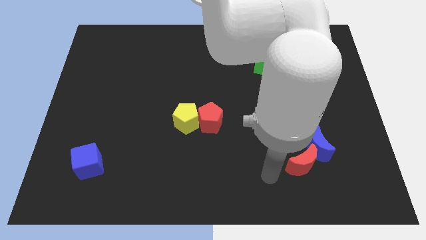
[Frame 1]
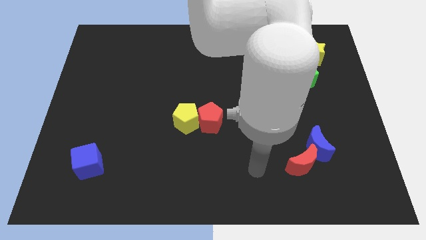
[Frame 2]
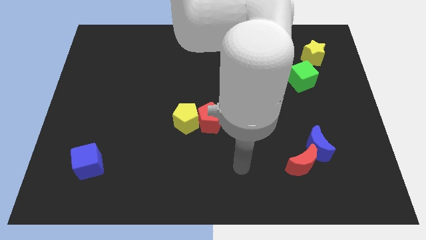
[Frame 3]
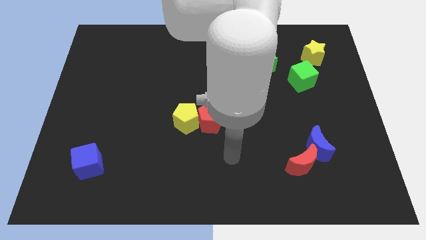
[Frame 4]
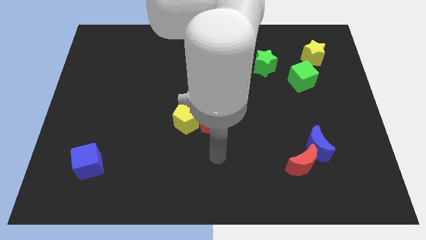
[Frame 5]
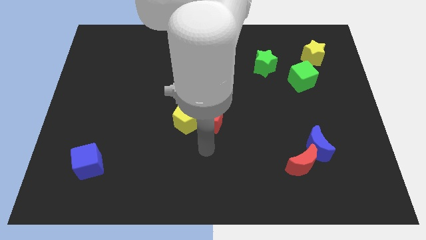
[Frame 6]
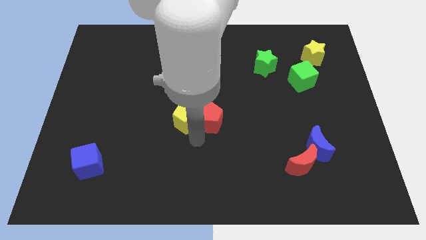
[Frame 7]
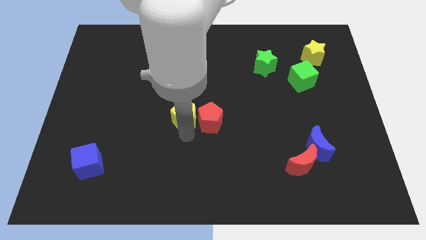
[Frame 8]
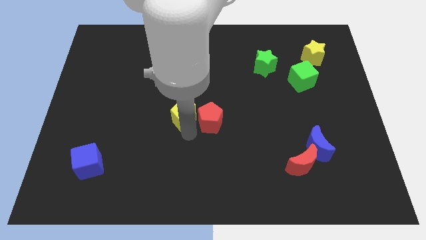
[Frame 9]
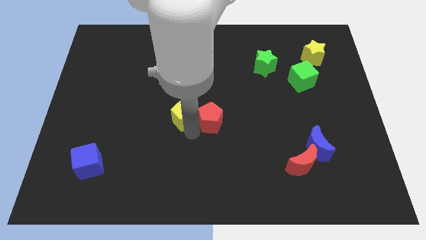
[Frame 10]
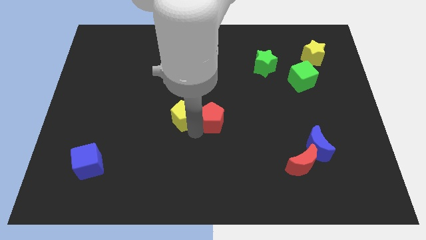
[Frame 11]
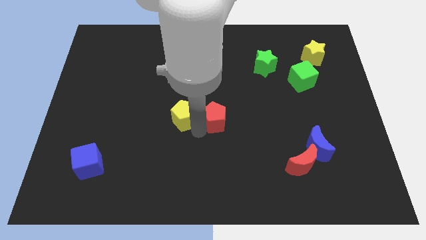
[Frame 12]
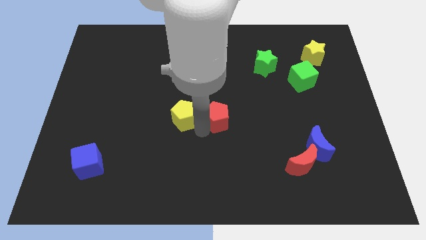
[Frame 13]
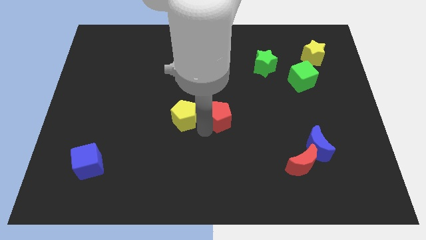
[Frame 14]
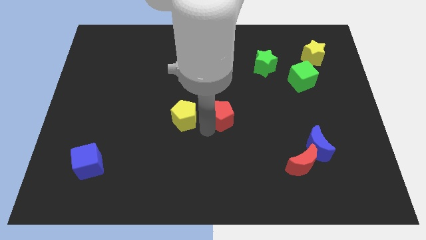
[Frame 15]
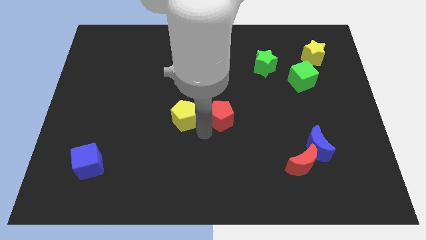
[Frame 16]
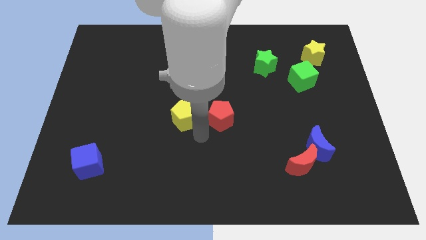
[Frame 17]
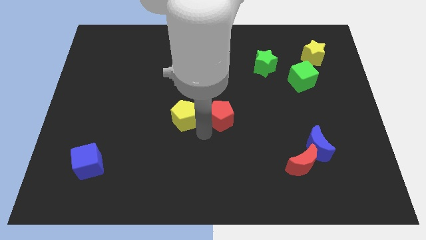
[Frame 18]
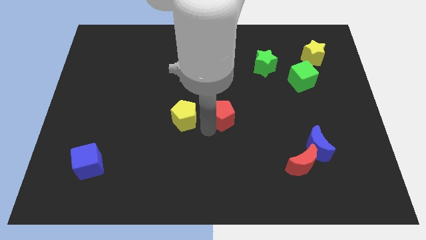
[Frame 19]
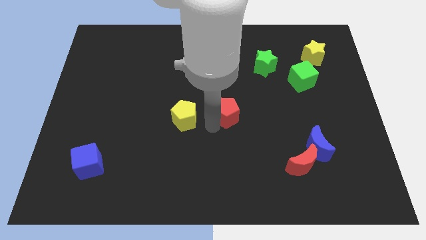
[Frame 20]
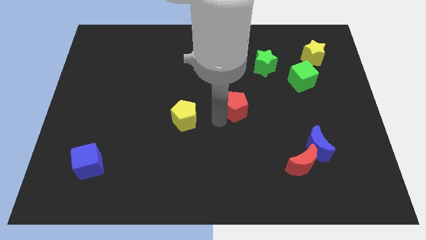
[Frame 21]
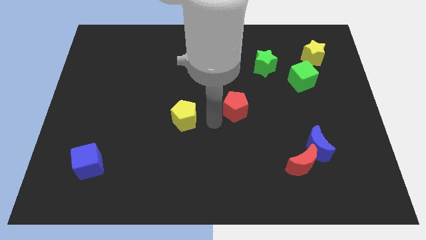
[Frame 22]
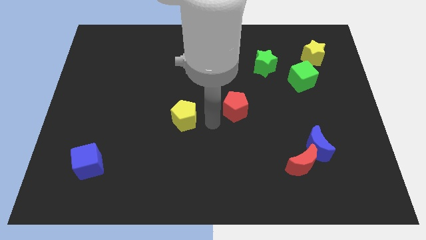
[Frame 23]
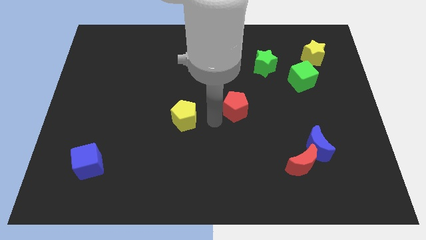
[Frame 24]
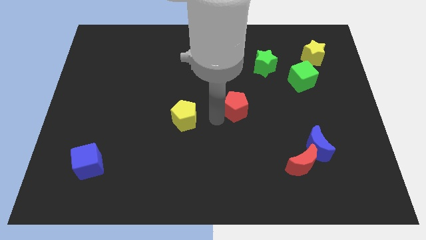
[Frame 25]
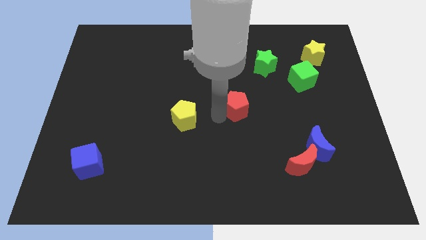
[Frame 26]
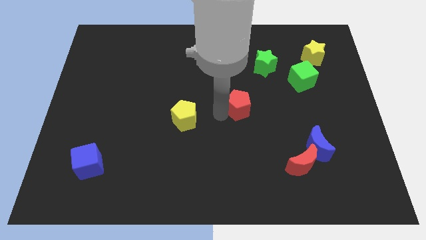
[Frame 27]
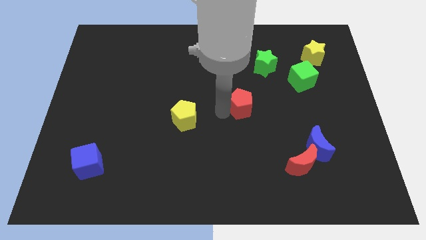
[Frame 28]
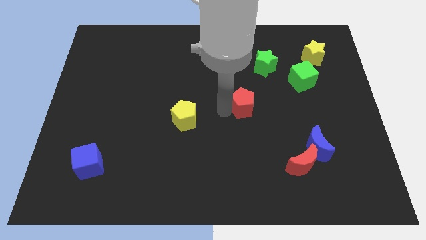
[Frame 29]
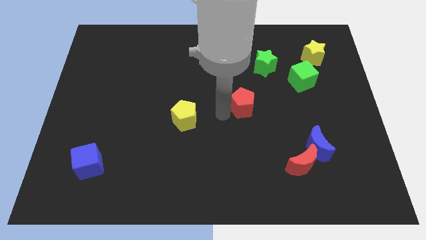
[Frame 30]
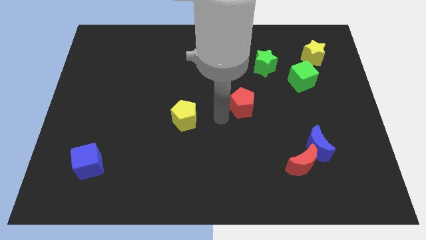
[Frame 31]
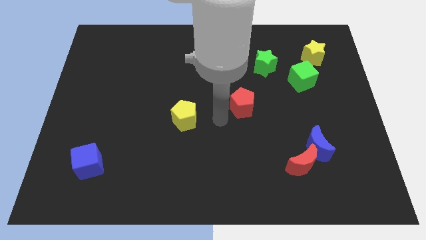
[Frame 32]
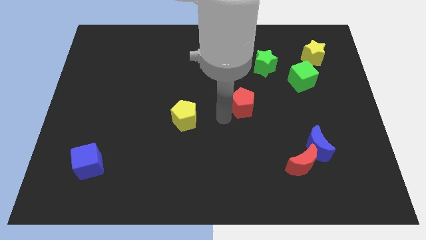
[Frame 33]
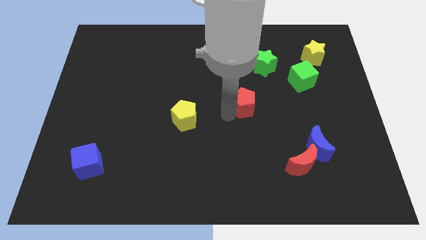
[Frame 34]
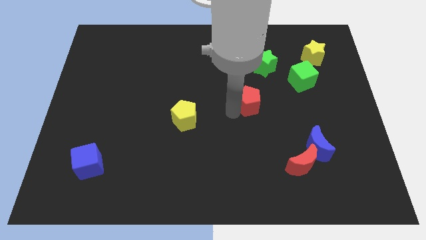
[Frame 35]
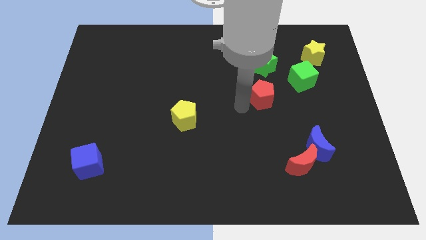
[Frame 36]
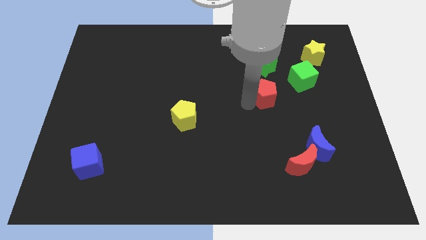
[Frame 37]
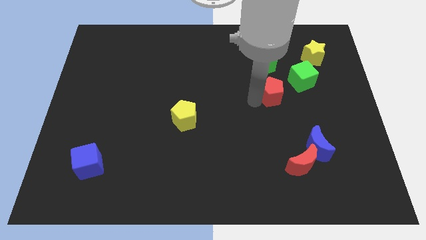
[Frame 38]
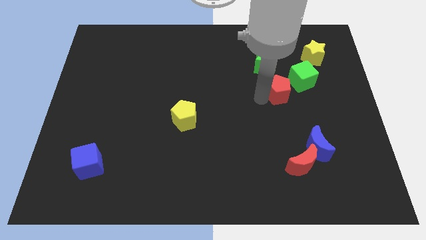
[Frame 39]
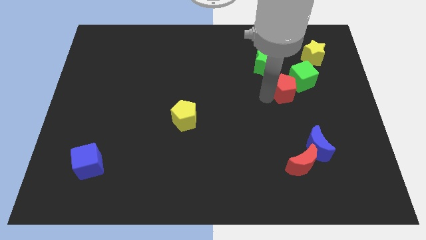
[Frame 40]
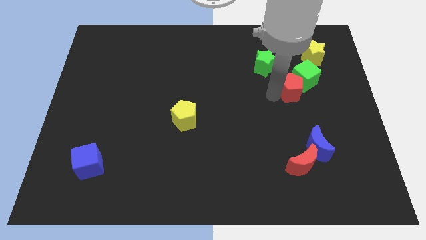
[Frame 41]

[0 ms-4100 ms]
slide the red pentagon to the green cube

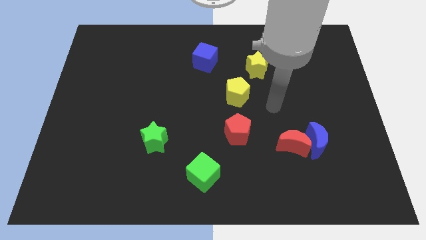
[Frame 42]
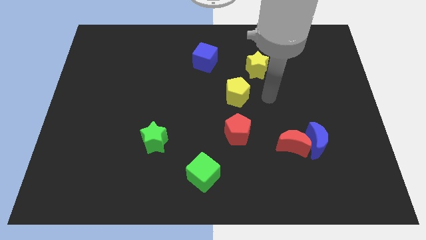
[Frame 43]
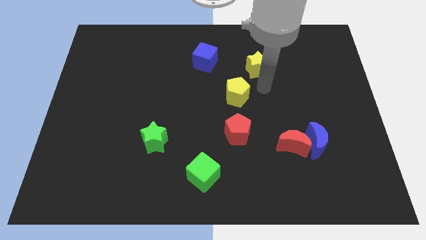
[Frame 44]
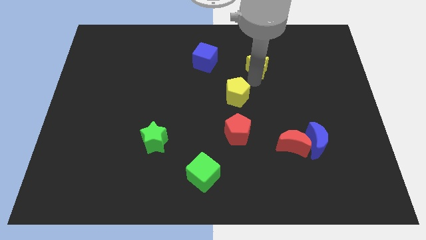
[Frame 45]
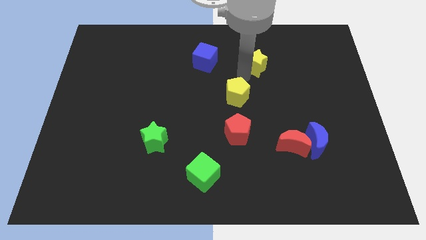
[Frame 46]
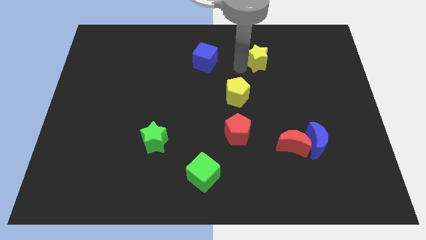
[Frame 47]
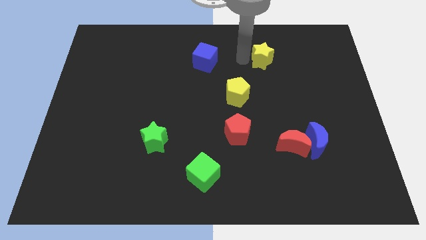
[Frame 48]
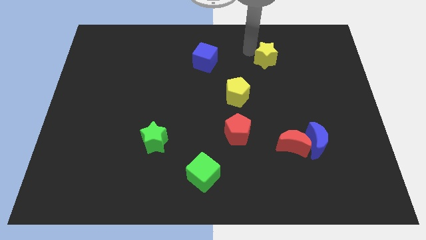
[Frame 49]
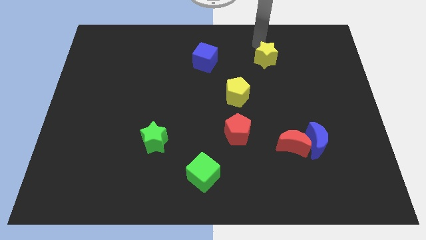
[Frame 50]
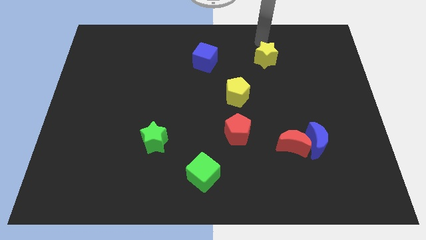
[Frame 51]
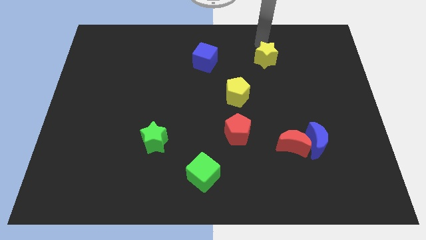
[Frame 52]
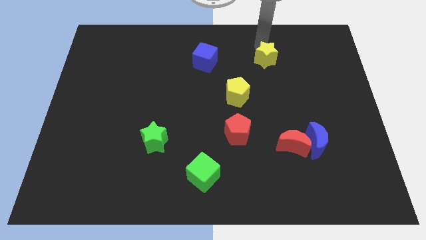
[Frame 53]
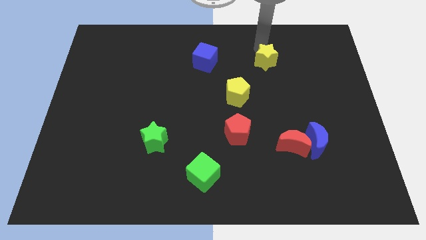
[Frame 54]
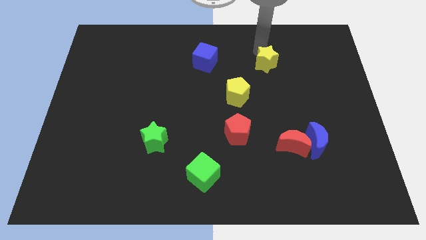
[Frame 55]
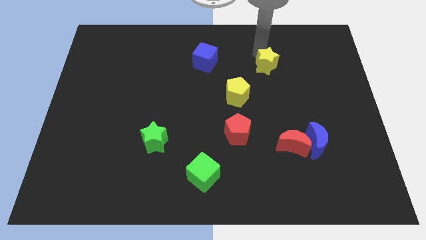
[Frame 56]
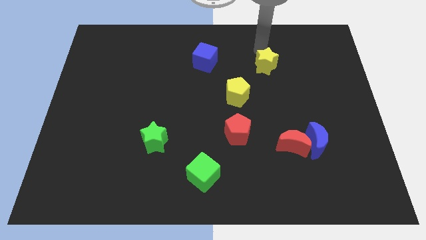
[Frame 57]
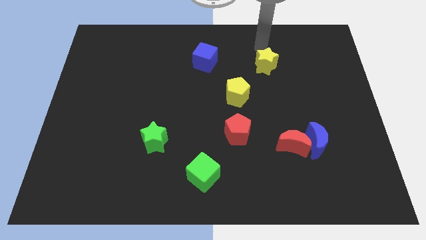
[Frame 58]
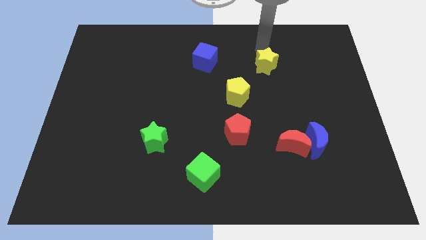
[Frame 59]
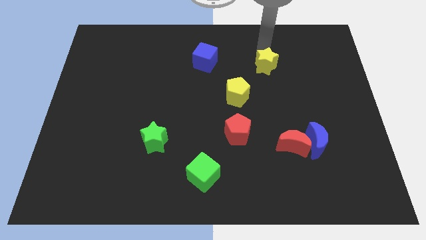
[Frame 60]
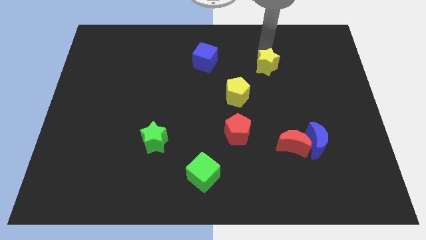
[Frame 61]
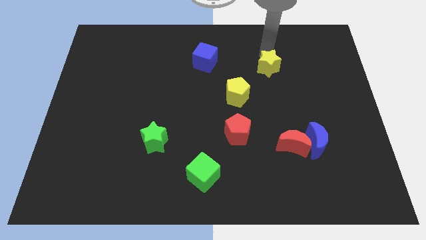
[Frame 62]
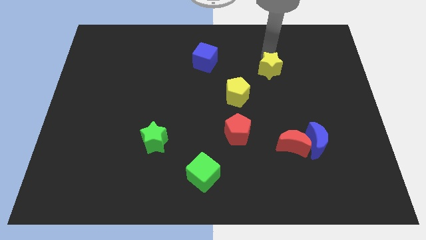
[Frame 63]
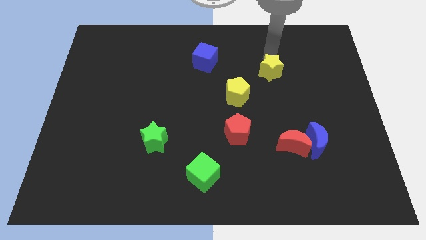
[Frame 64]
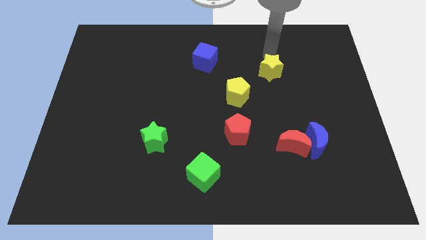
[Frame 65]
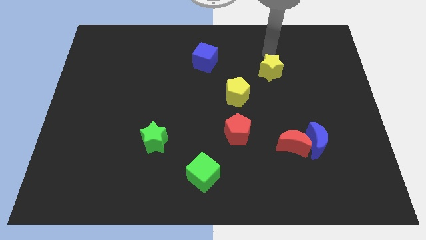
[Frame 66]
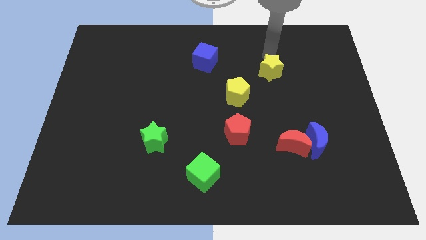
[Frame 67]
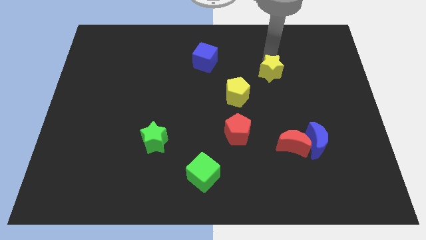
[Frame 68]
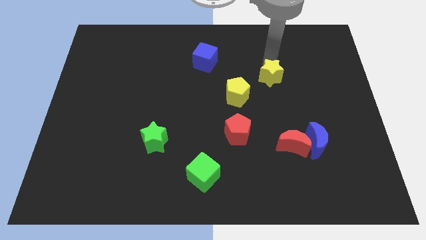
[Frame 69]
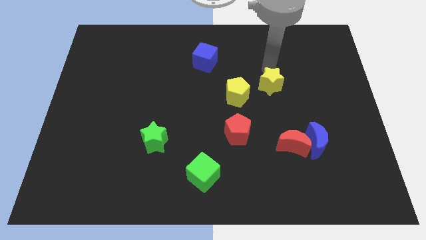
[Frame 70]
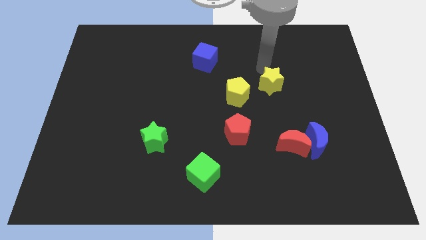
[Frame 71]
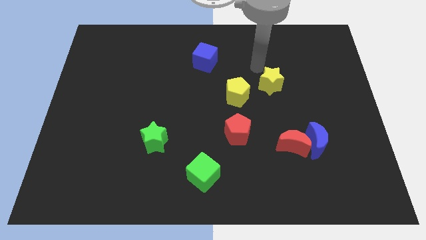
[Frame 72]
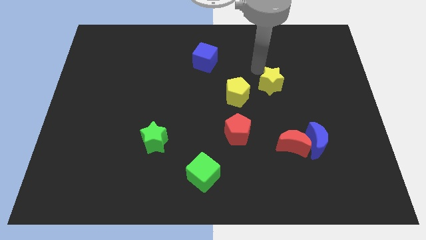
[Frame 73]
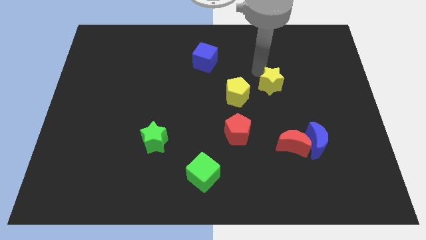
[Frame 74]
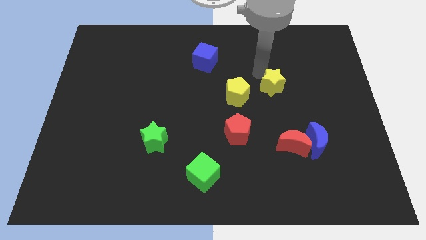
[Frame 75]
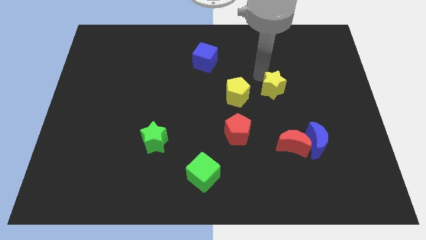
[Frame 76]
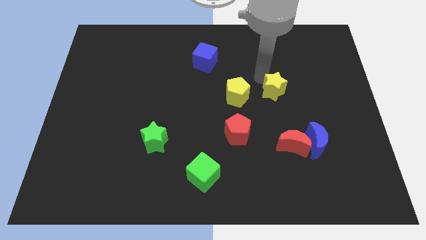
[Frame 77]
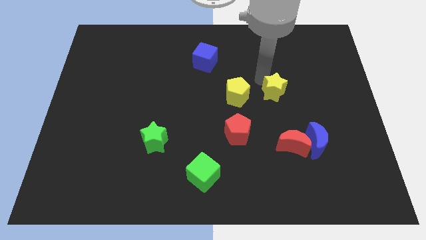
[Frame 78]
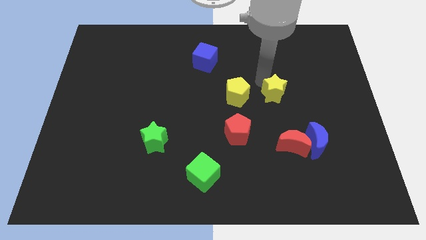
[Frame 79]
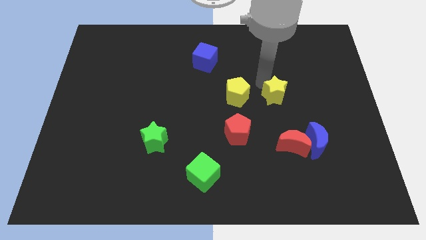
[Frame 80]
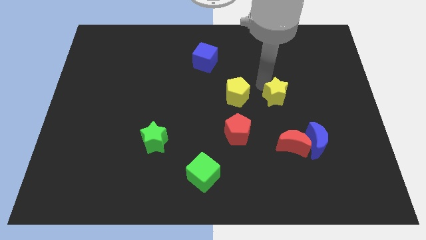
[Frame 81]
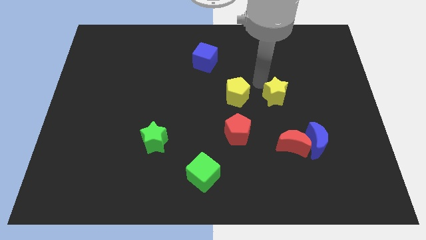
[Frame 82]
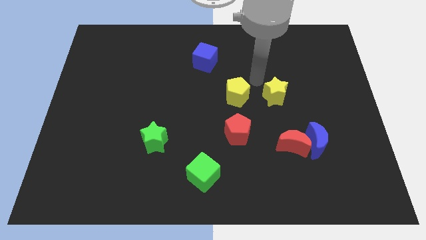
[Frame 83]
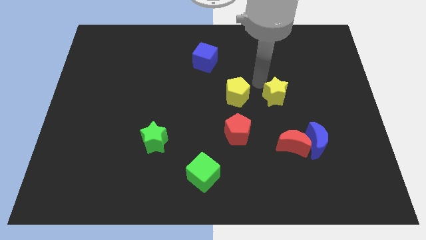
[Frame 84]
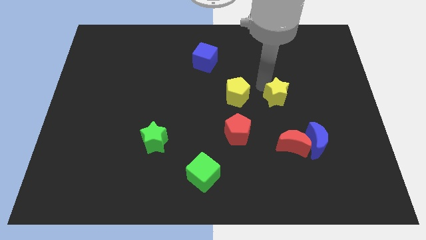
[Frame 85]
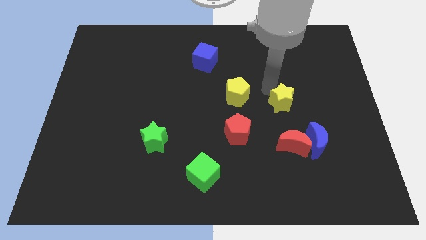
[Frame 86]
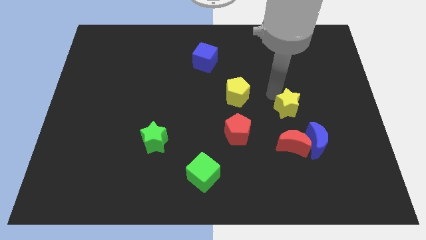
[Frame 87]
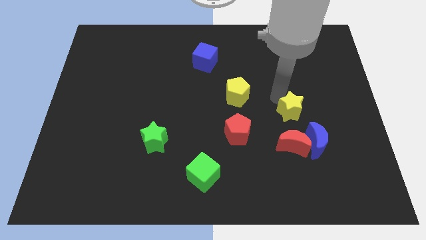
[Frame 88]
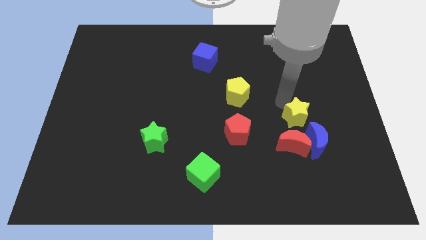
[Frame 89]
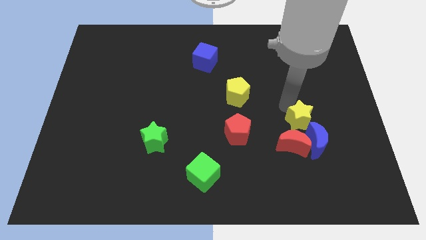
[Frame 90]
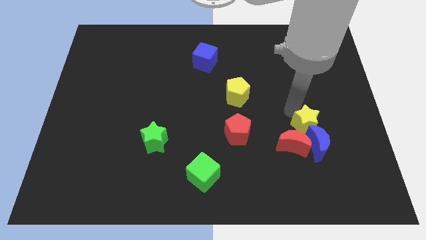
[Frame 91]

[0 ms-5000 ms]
move the yellow star close to the blue moon
